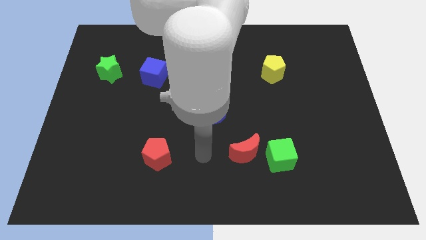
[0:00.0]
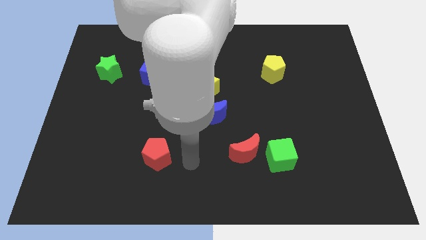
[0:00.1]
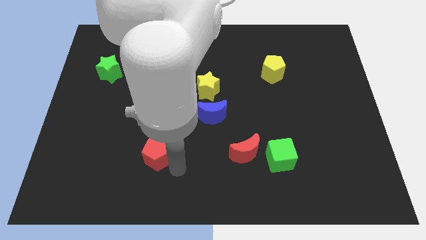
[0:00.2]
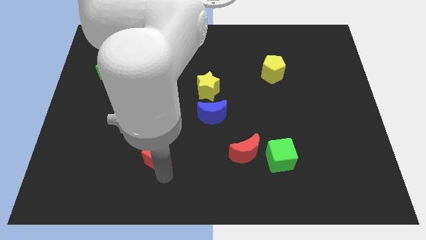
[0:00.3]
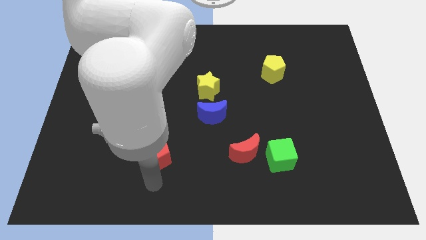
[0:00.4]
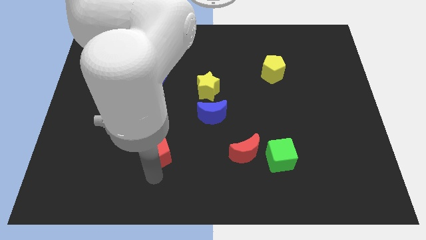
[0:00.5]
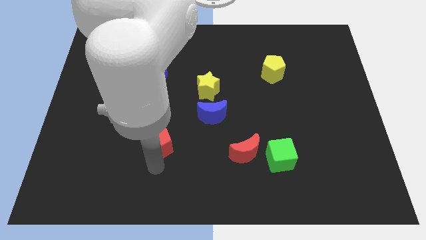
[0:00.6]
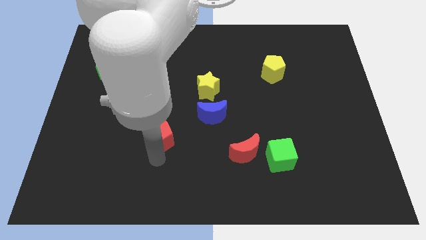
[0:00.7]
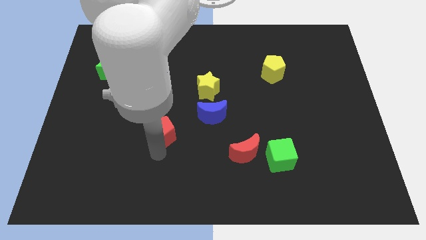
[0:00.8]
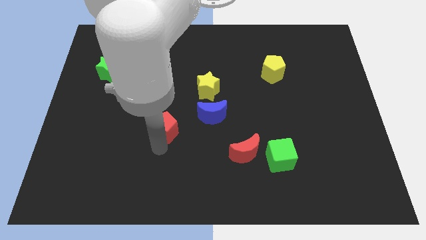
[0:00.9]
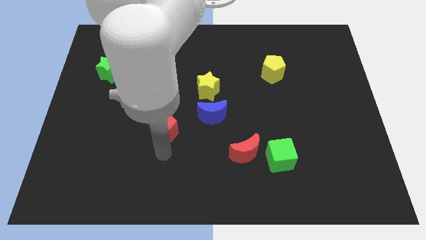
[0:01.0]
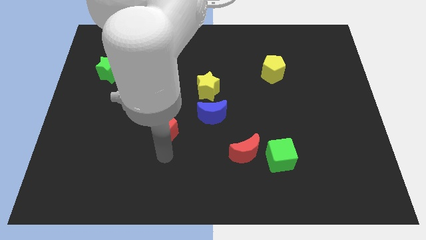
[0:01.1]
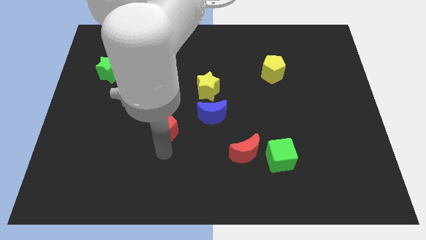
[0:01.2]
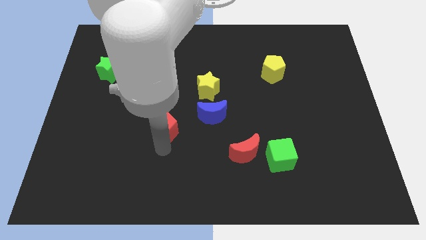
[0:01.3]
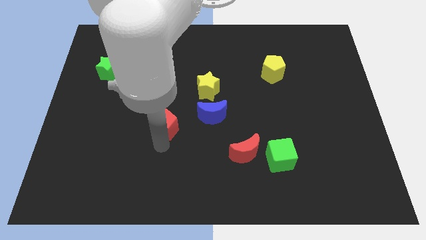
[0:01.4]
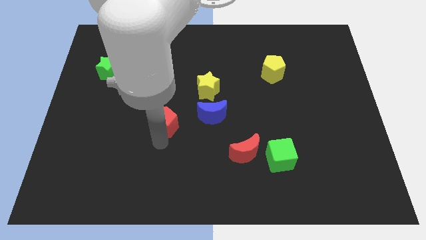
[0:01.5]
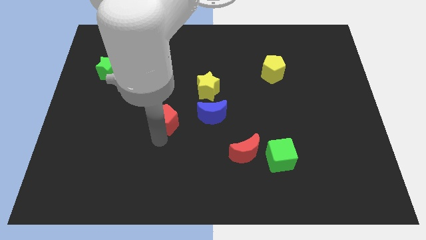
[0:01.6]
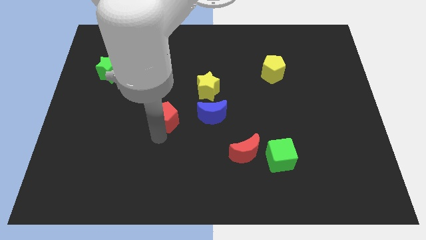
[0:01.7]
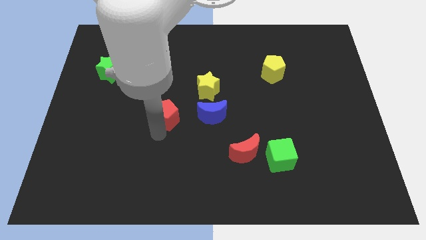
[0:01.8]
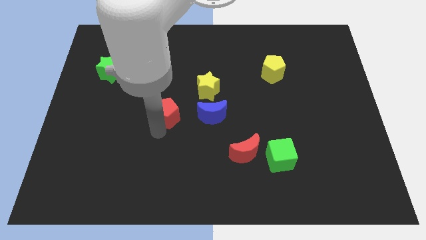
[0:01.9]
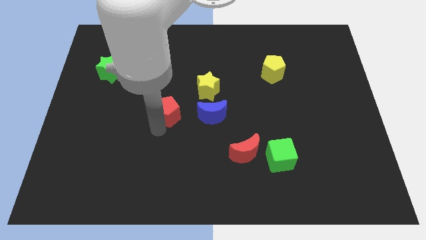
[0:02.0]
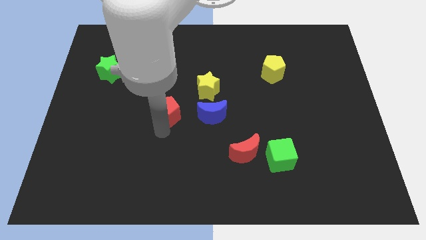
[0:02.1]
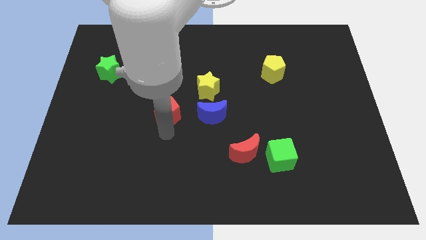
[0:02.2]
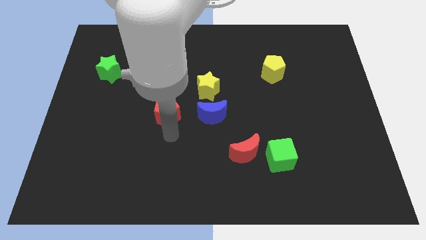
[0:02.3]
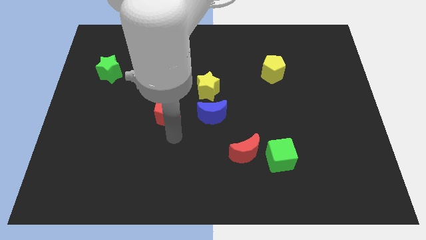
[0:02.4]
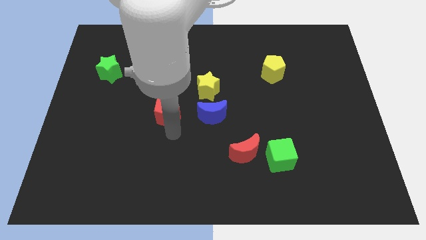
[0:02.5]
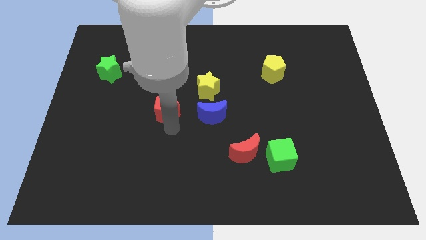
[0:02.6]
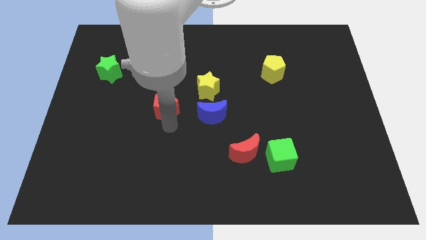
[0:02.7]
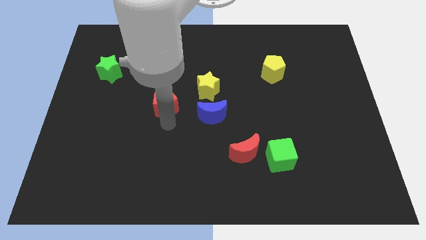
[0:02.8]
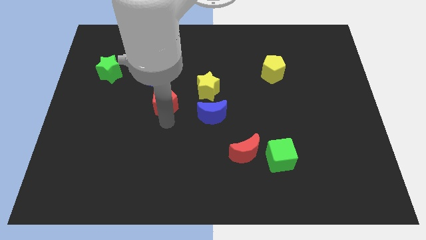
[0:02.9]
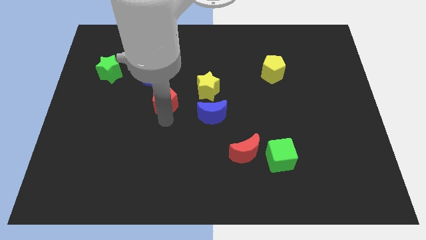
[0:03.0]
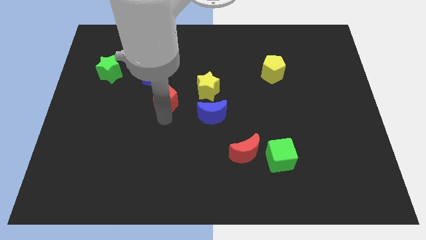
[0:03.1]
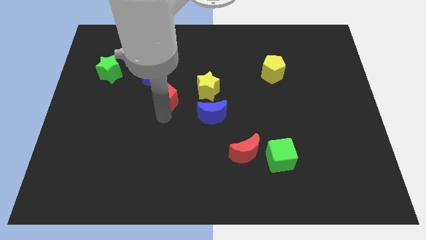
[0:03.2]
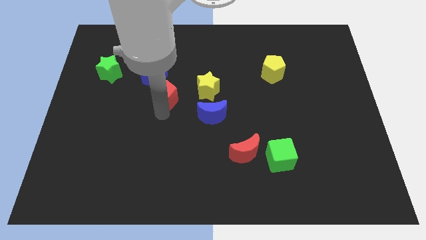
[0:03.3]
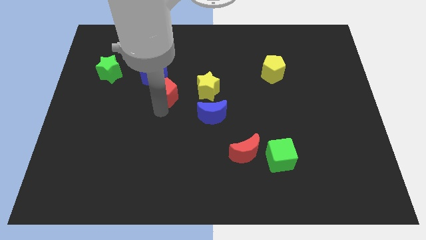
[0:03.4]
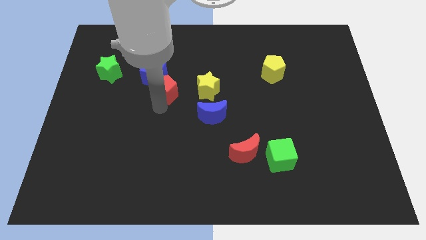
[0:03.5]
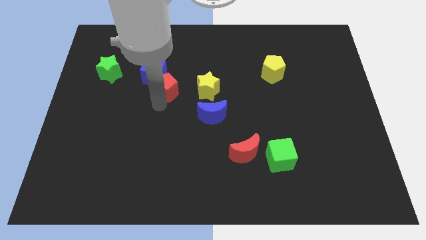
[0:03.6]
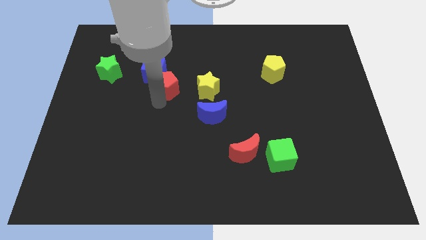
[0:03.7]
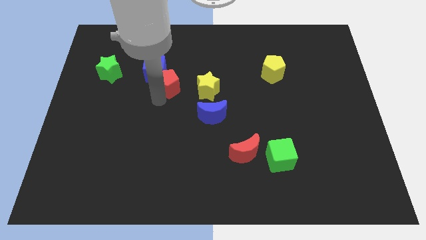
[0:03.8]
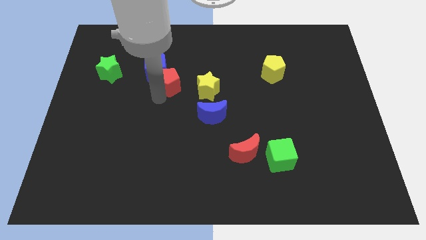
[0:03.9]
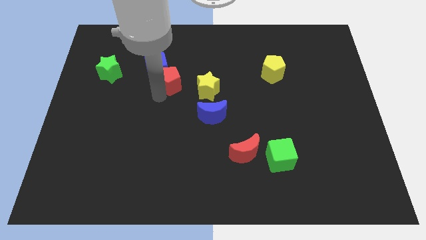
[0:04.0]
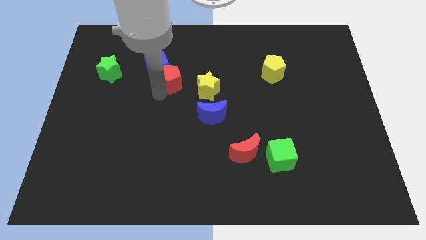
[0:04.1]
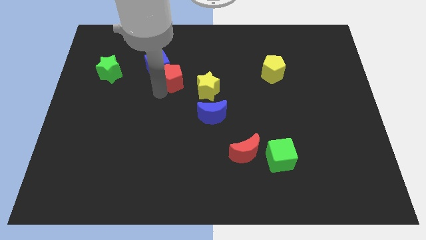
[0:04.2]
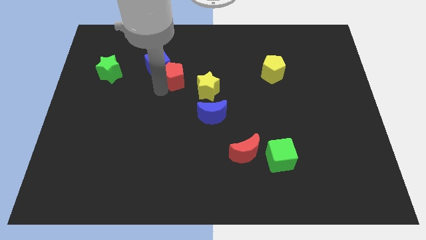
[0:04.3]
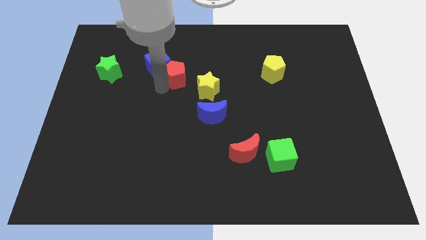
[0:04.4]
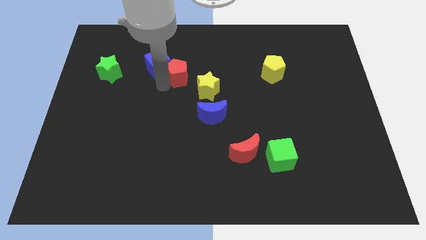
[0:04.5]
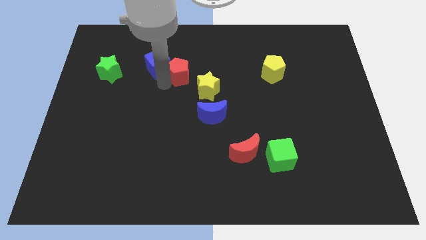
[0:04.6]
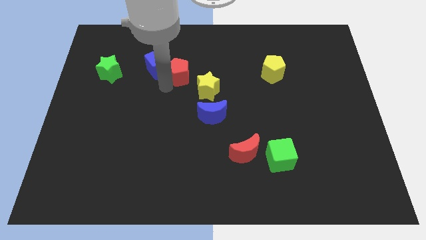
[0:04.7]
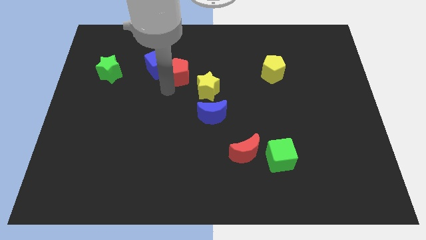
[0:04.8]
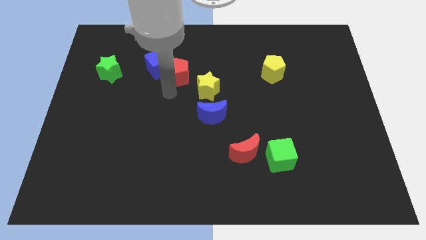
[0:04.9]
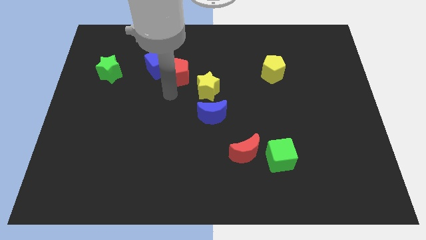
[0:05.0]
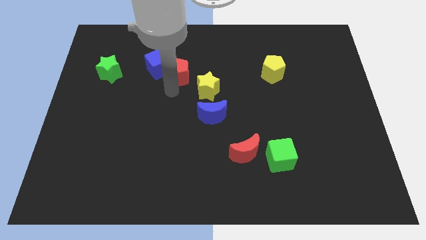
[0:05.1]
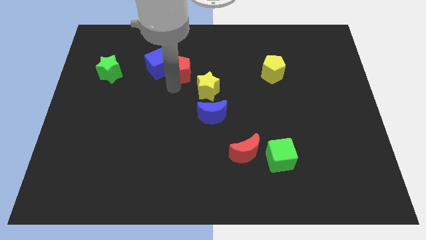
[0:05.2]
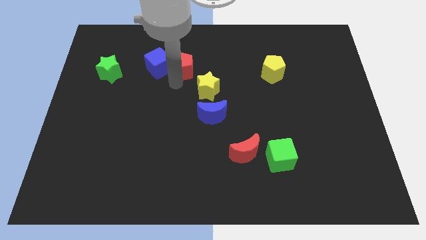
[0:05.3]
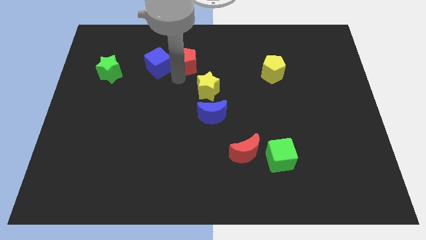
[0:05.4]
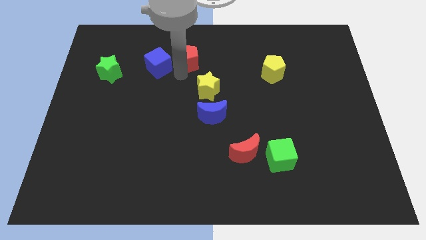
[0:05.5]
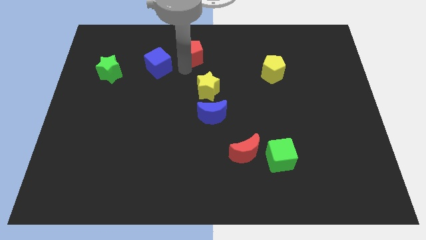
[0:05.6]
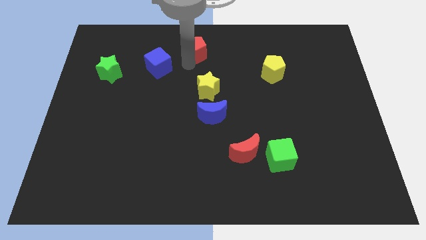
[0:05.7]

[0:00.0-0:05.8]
slide the red pentagon to the top side
